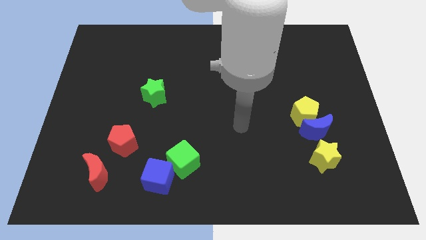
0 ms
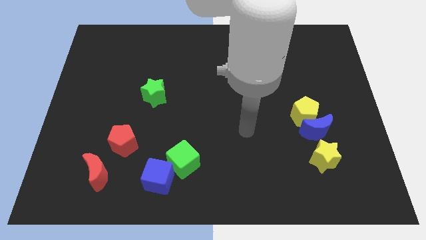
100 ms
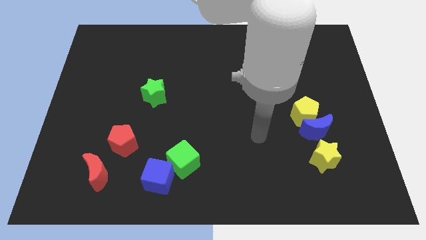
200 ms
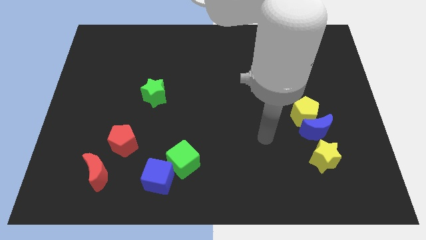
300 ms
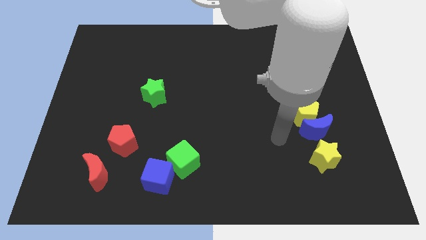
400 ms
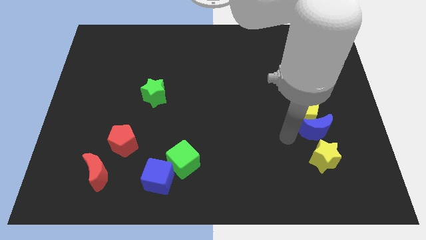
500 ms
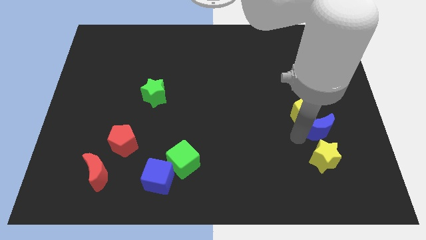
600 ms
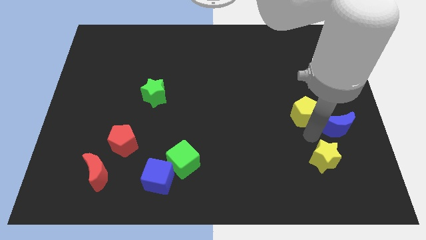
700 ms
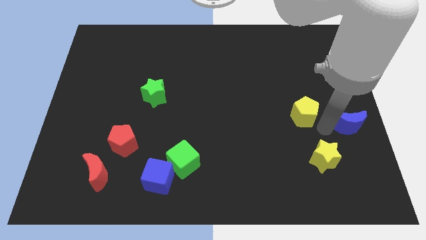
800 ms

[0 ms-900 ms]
pull the yellow pentagon apart from the blue moon

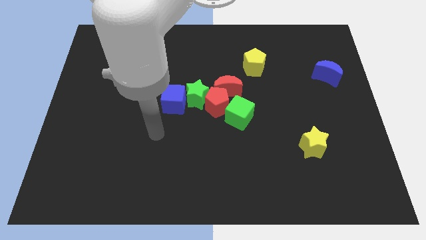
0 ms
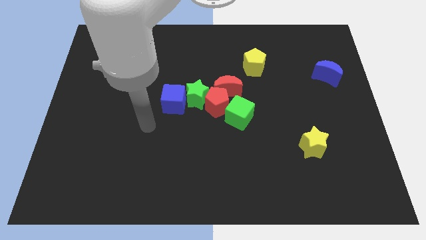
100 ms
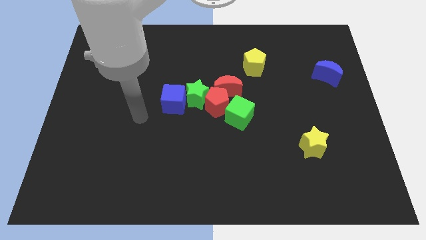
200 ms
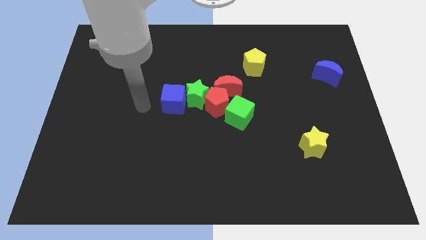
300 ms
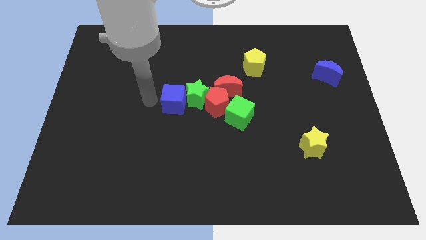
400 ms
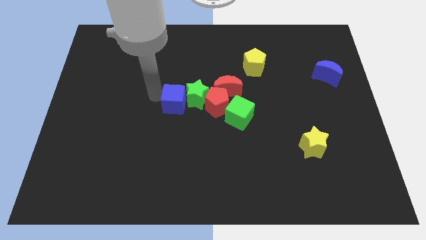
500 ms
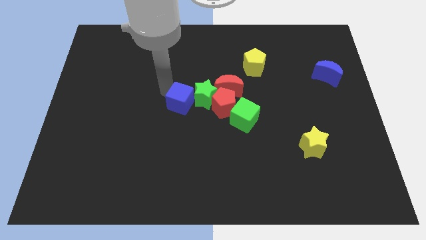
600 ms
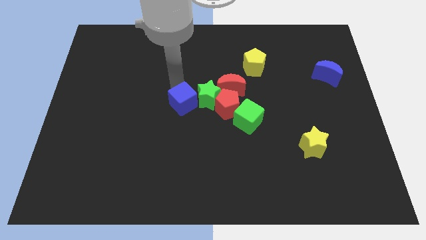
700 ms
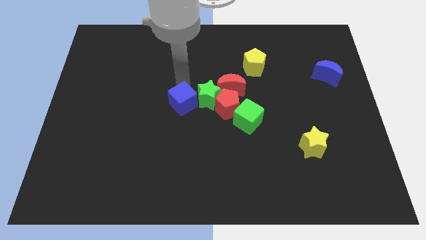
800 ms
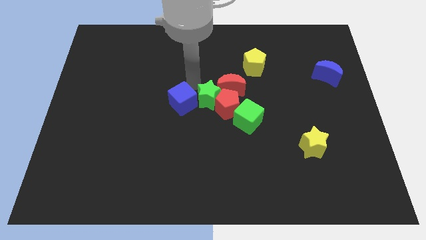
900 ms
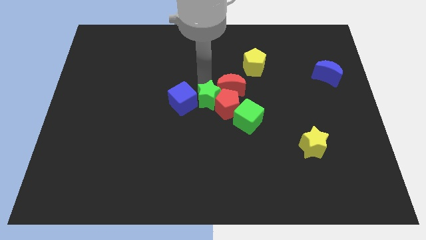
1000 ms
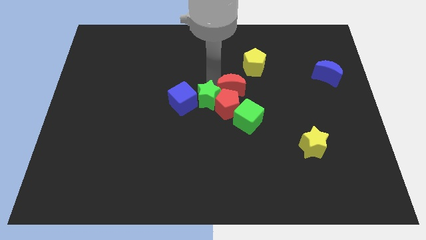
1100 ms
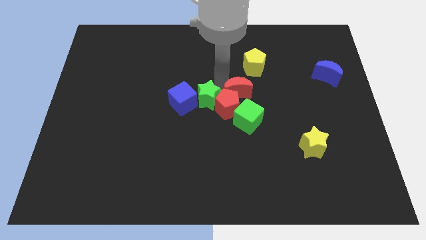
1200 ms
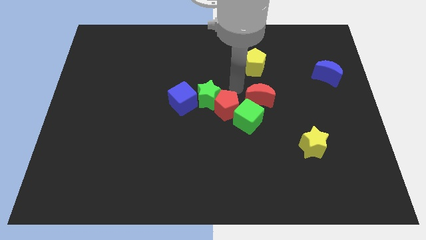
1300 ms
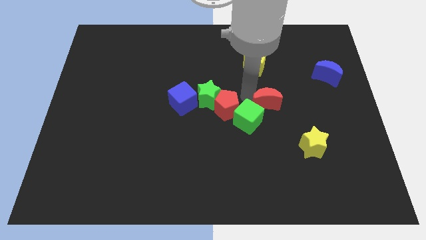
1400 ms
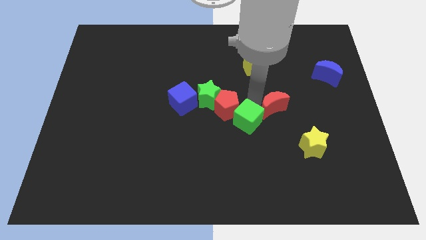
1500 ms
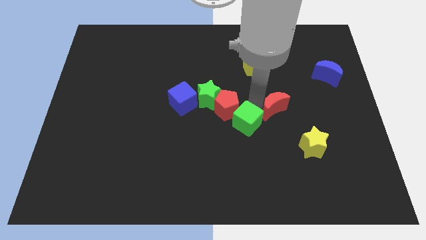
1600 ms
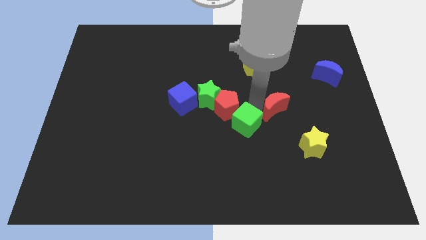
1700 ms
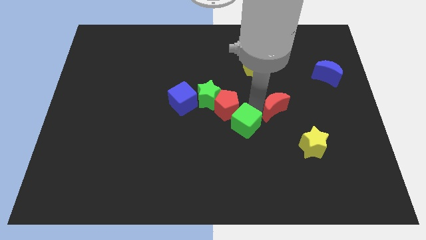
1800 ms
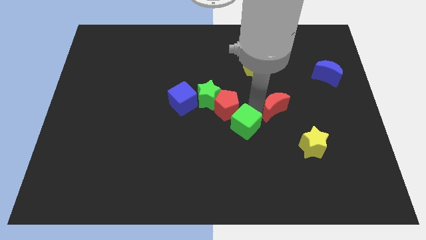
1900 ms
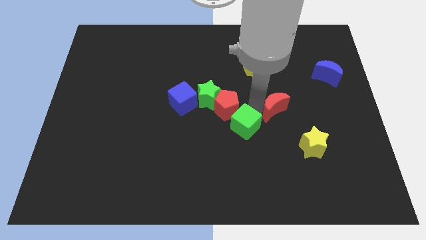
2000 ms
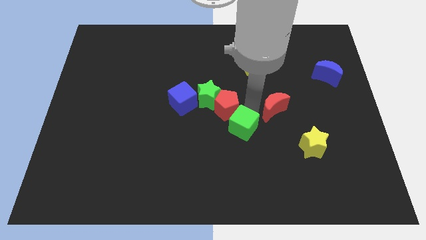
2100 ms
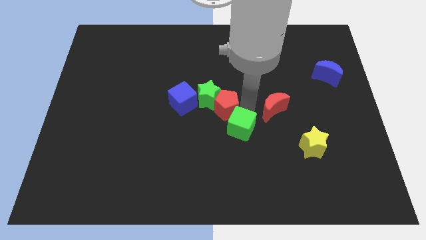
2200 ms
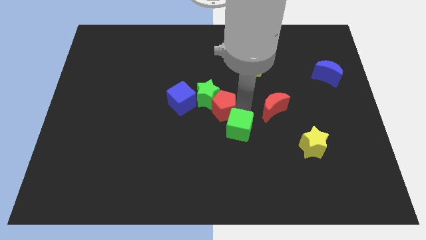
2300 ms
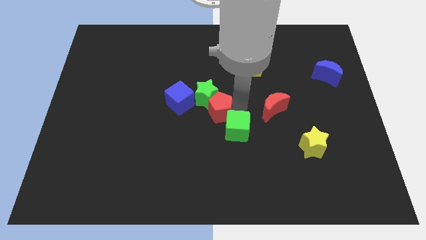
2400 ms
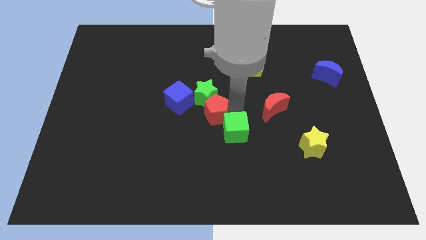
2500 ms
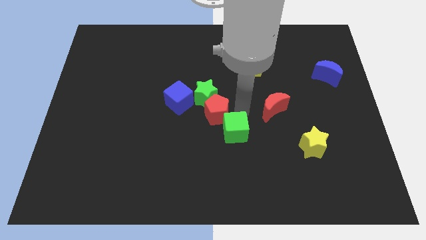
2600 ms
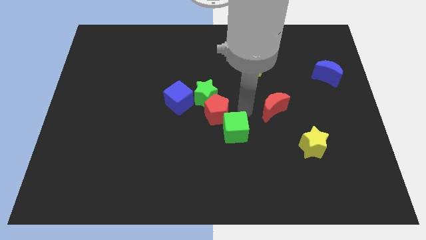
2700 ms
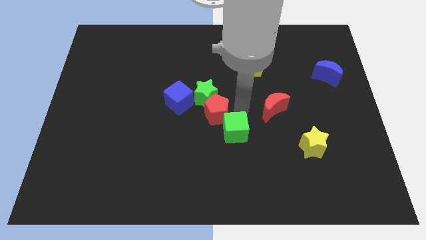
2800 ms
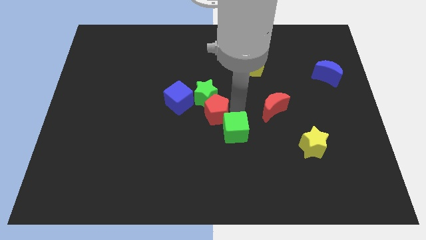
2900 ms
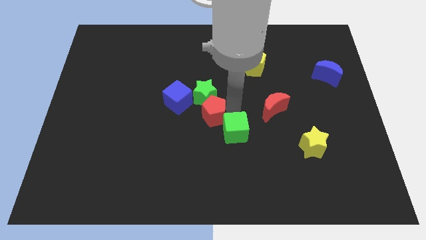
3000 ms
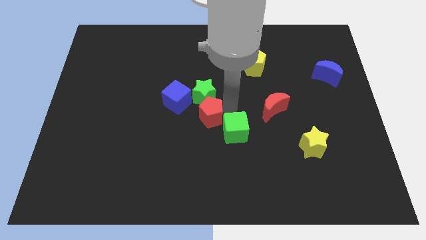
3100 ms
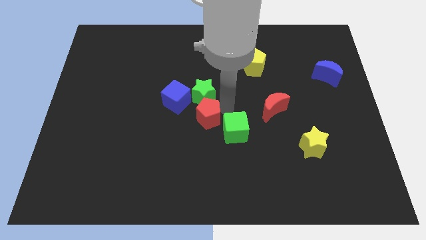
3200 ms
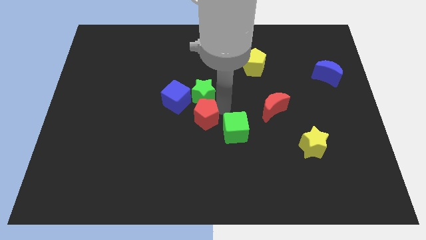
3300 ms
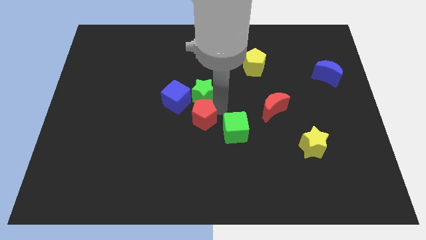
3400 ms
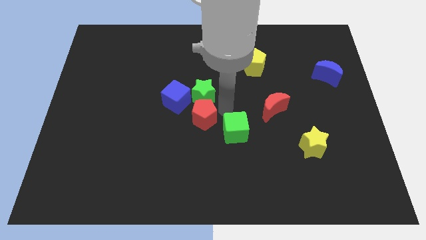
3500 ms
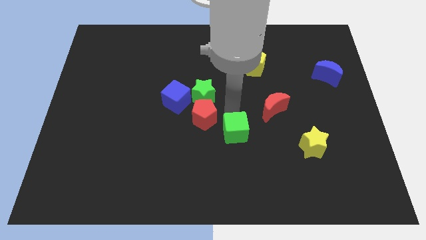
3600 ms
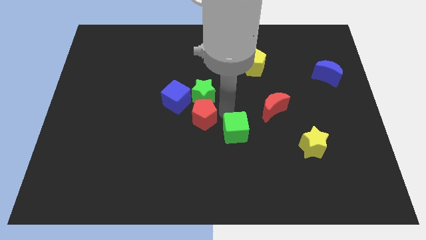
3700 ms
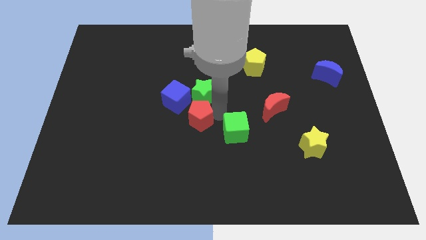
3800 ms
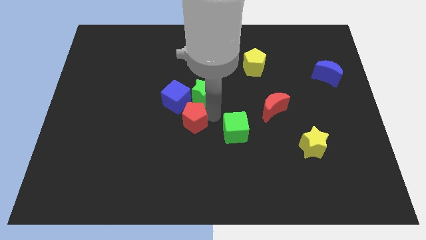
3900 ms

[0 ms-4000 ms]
pull the red pentagon apart from the clump

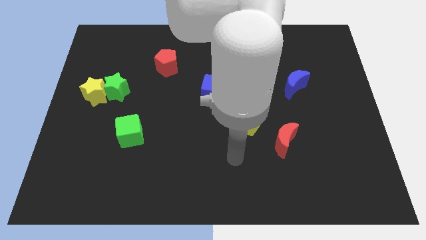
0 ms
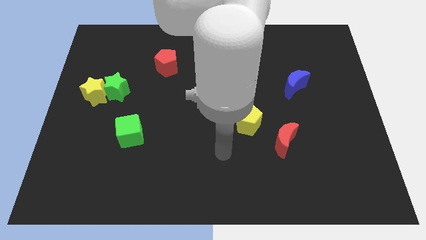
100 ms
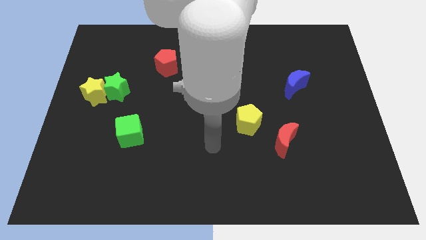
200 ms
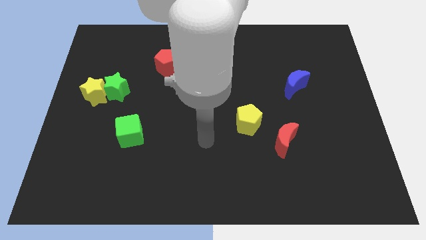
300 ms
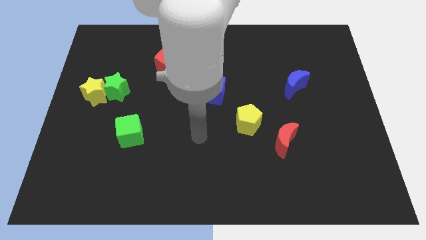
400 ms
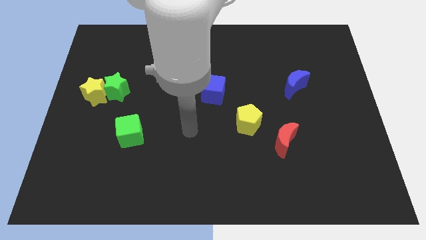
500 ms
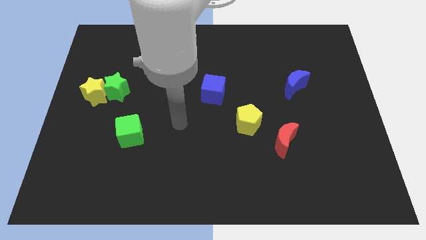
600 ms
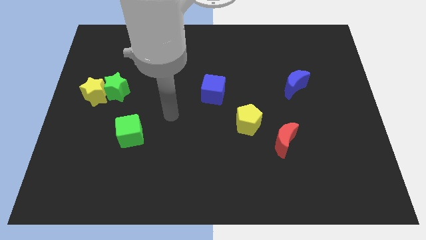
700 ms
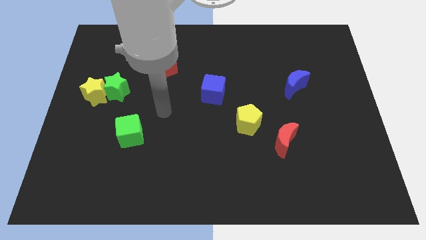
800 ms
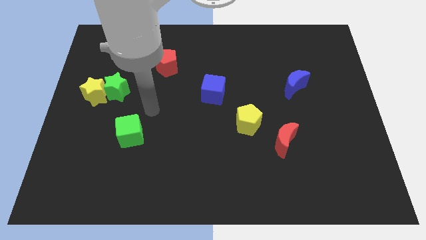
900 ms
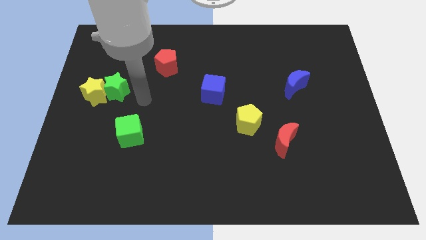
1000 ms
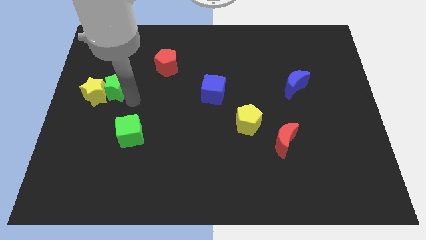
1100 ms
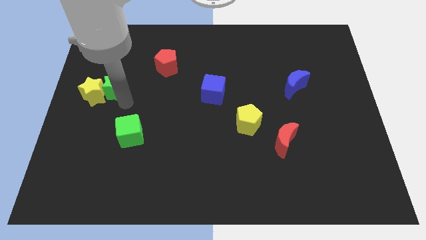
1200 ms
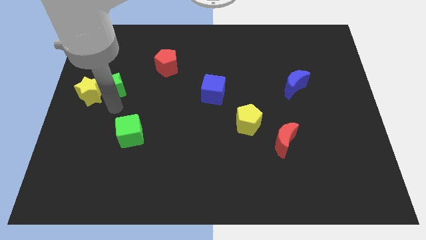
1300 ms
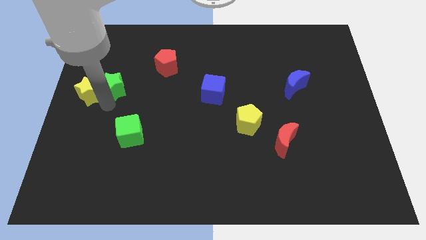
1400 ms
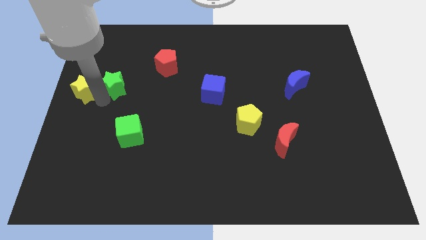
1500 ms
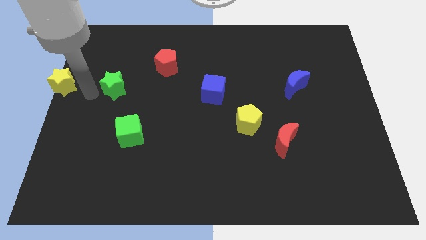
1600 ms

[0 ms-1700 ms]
move the green star away from the yellow star

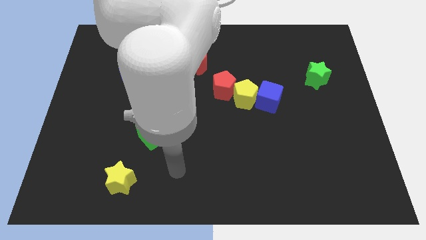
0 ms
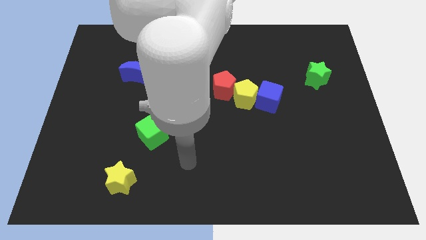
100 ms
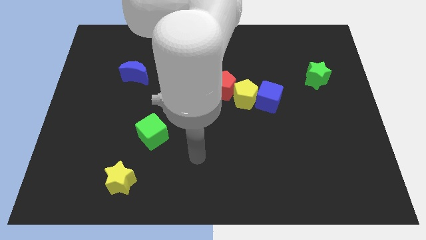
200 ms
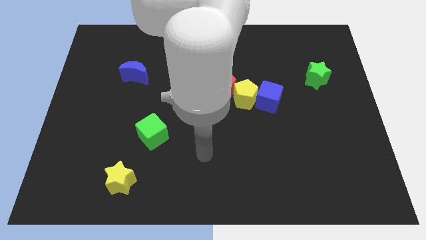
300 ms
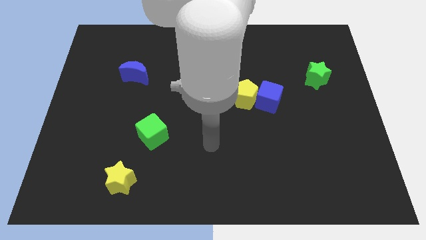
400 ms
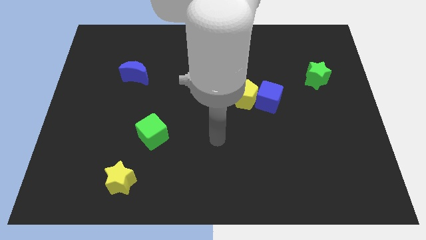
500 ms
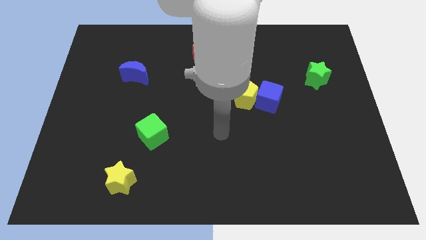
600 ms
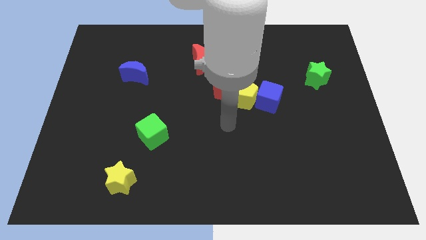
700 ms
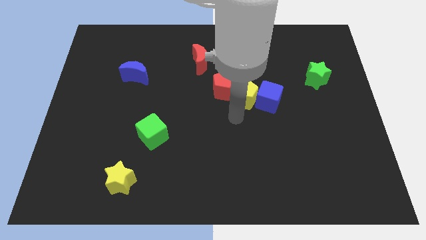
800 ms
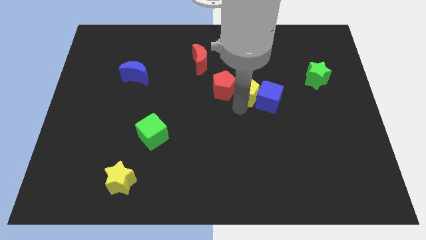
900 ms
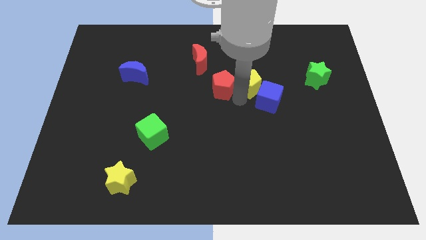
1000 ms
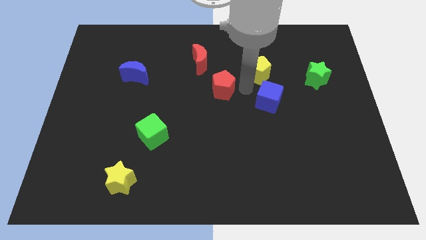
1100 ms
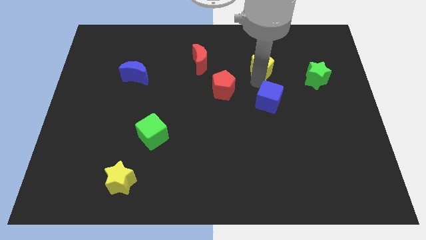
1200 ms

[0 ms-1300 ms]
pull the blue cube apart from the yellow pentagon

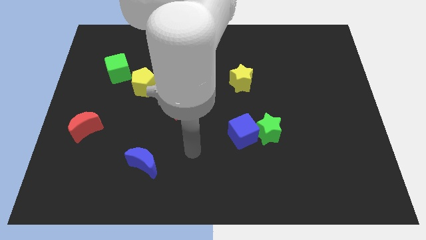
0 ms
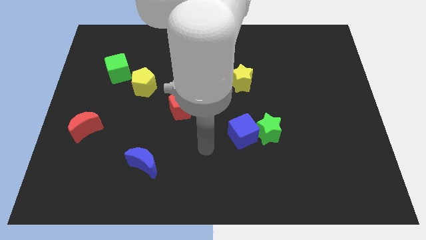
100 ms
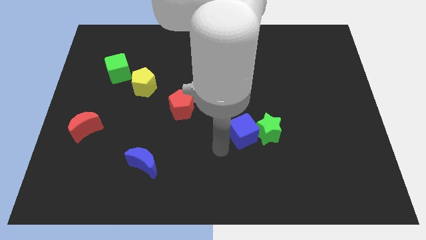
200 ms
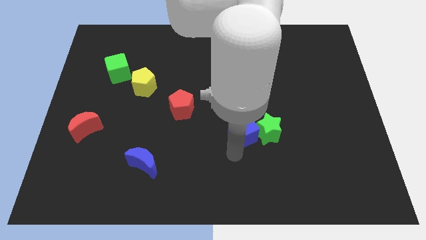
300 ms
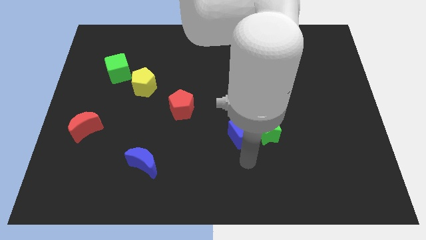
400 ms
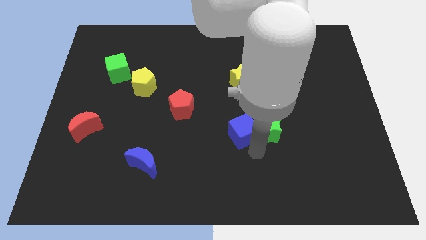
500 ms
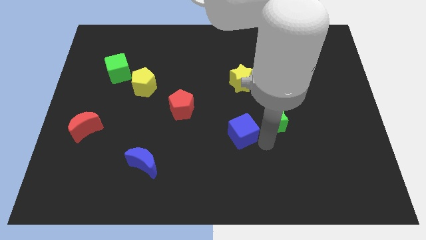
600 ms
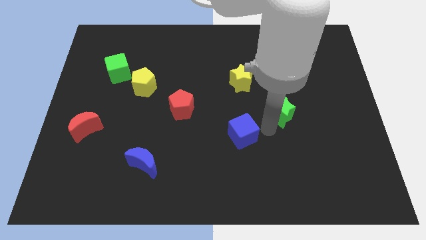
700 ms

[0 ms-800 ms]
separate the blue cube from the green star

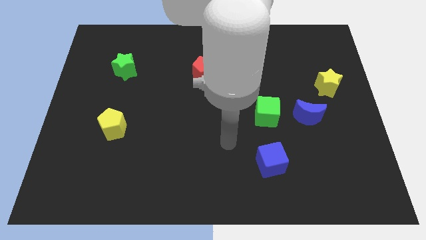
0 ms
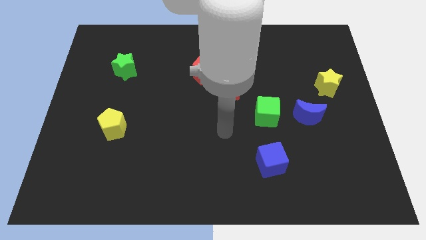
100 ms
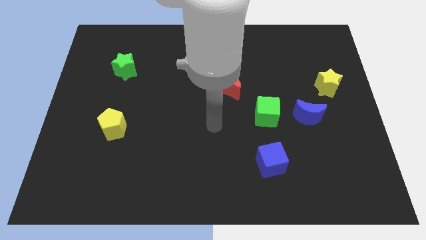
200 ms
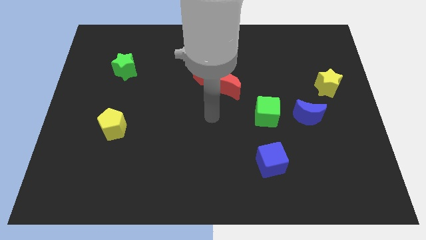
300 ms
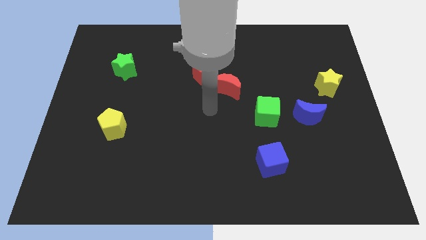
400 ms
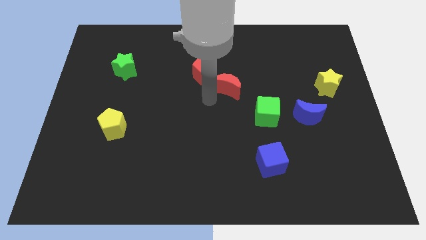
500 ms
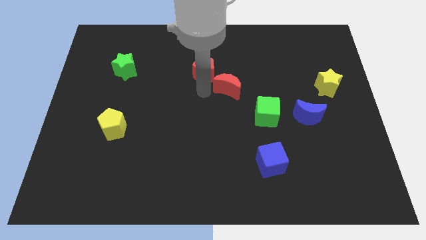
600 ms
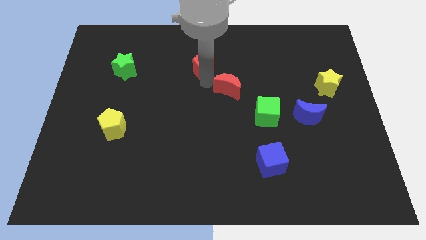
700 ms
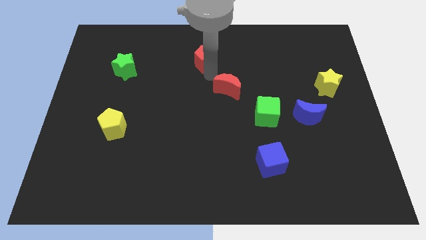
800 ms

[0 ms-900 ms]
move the red moon away from the red pentagon
